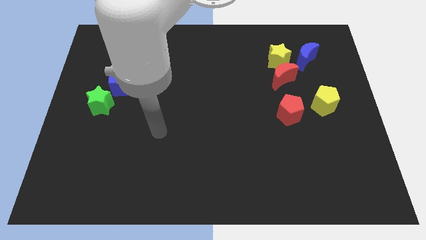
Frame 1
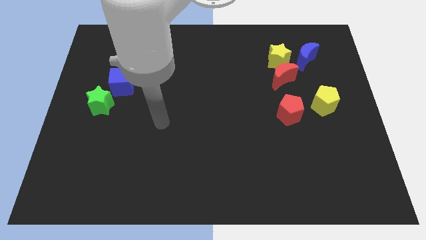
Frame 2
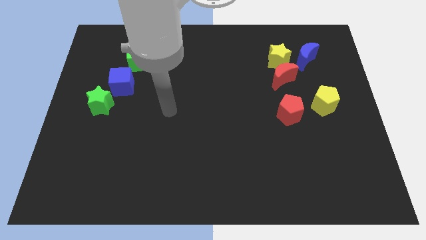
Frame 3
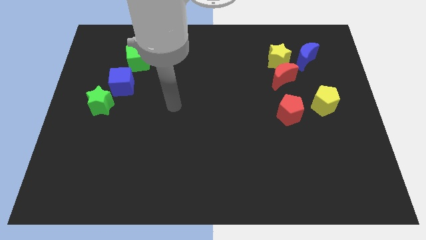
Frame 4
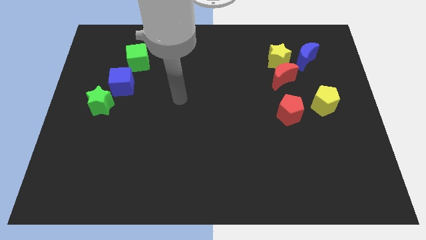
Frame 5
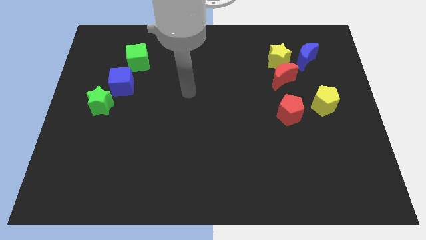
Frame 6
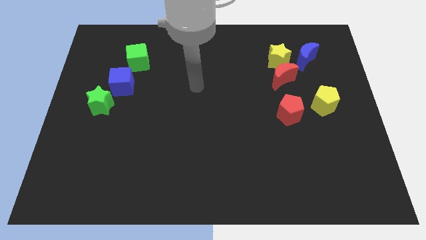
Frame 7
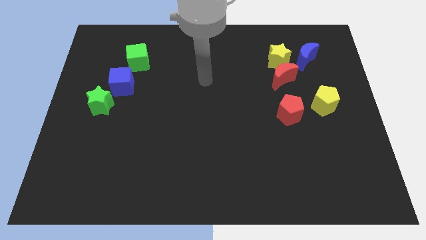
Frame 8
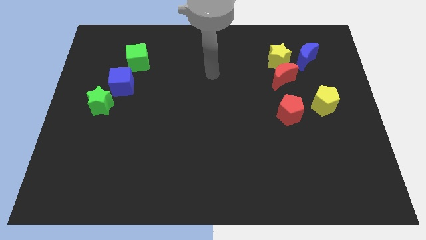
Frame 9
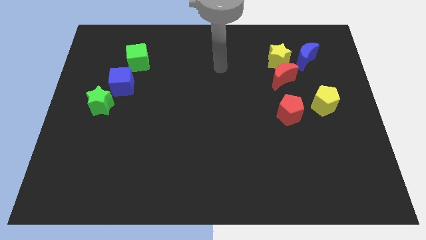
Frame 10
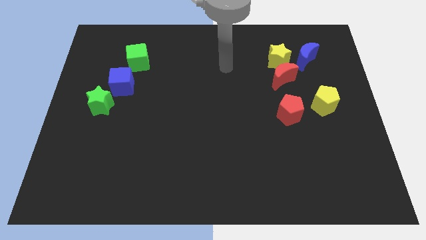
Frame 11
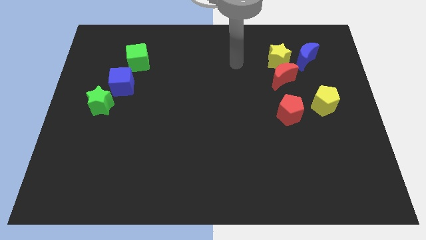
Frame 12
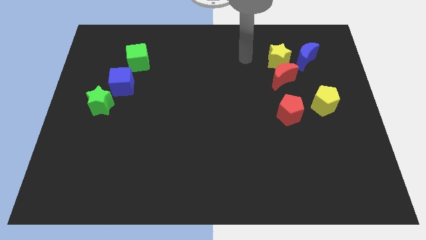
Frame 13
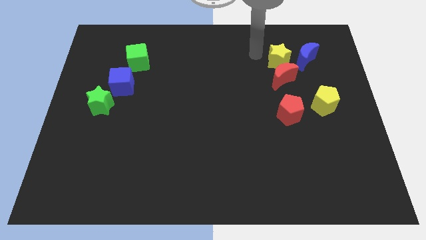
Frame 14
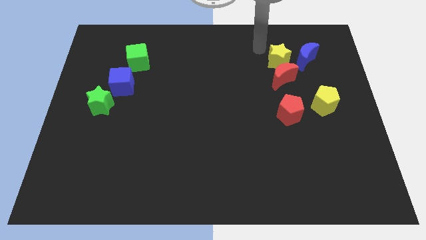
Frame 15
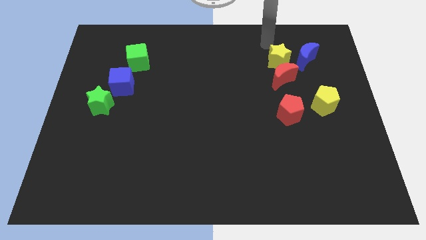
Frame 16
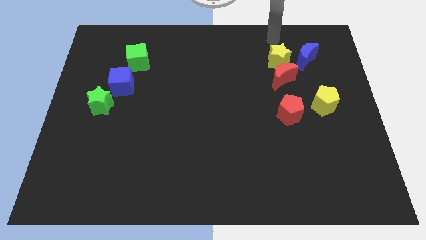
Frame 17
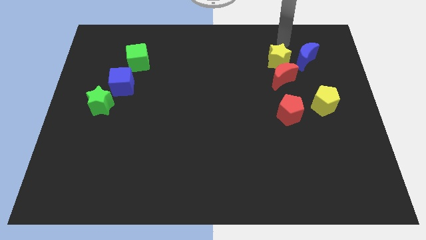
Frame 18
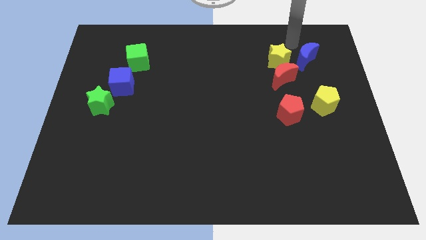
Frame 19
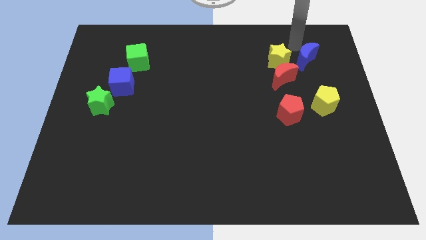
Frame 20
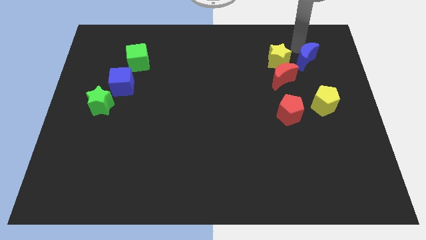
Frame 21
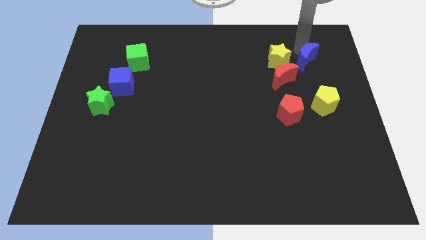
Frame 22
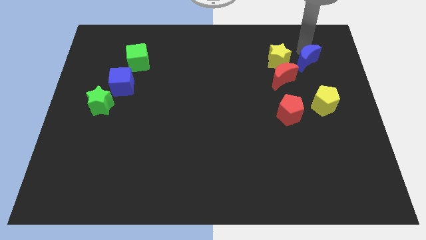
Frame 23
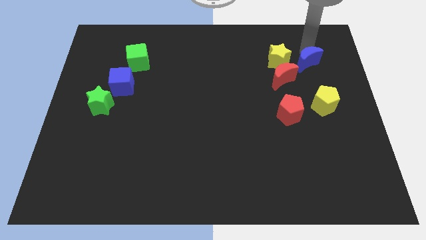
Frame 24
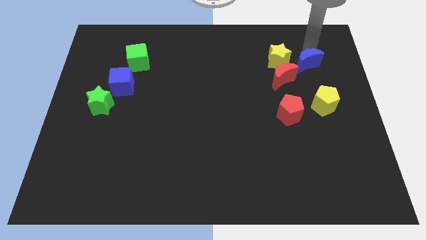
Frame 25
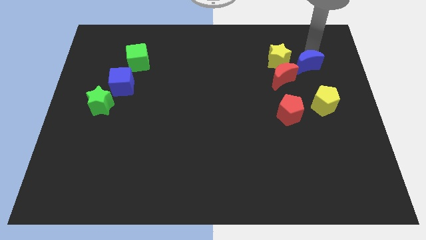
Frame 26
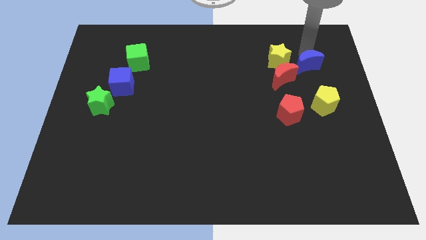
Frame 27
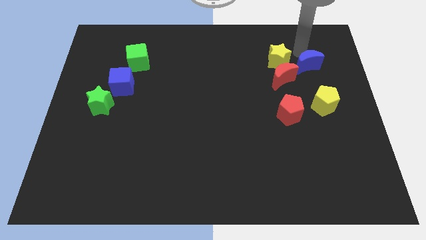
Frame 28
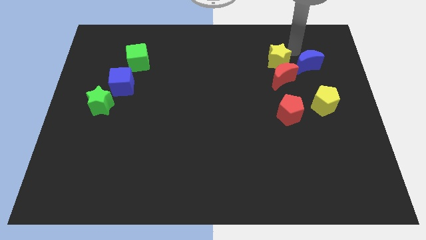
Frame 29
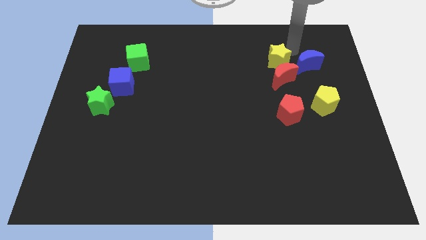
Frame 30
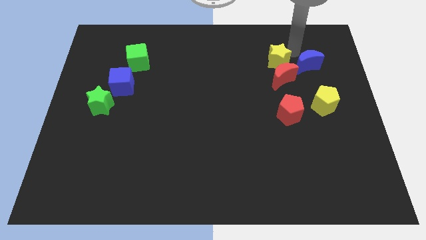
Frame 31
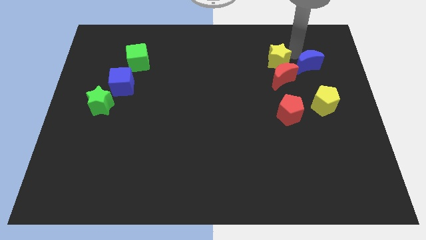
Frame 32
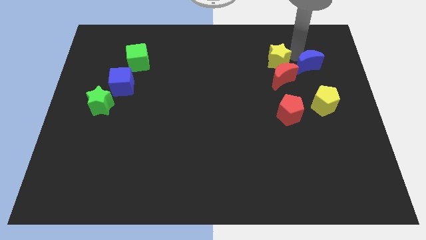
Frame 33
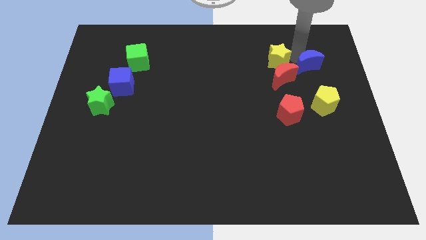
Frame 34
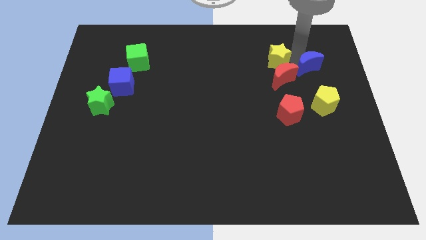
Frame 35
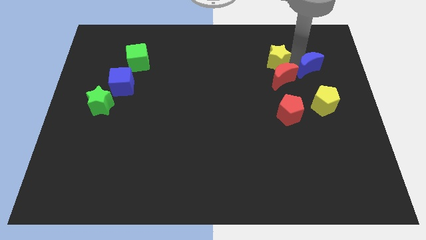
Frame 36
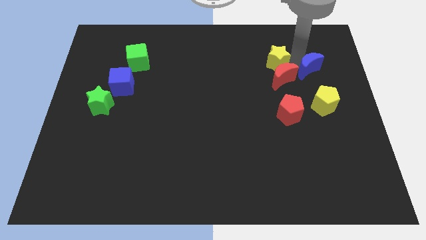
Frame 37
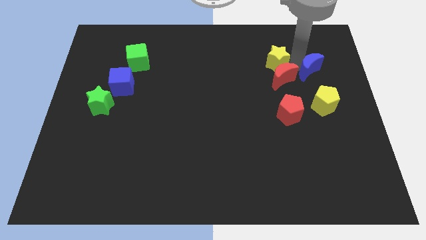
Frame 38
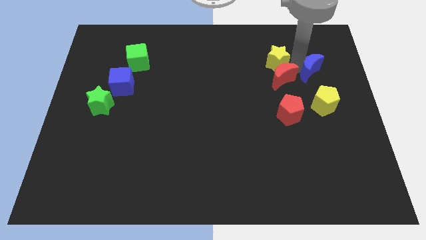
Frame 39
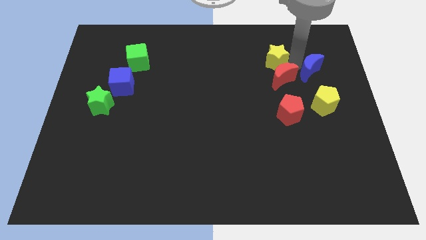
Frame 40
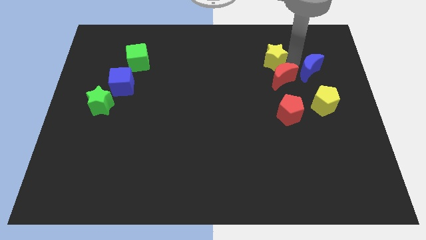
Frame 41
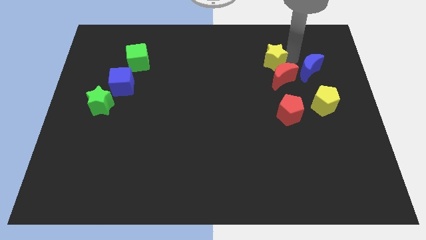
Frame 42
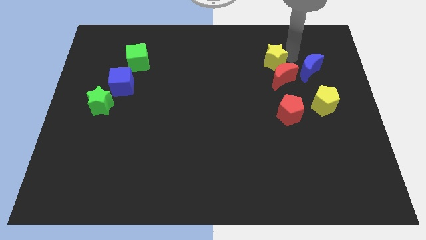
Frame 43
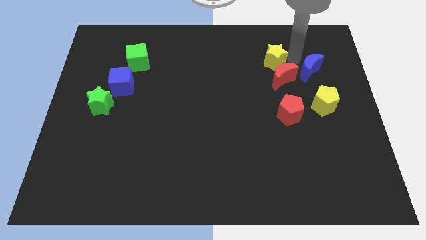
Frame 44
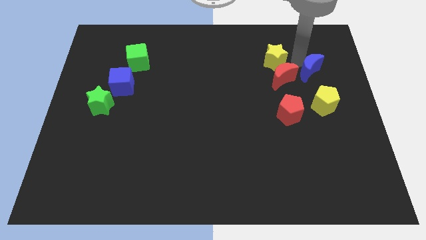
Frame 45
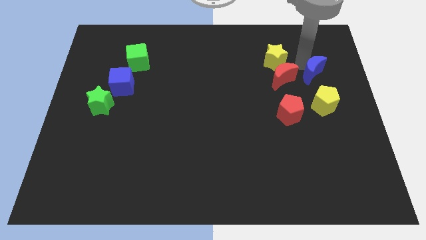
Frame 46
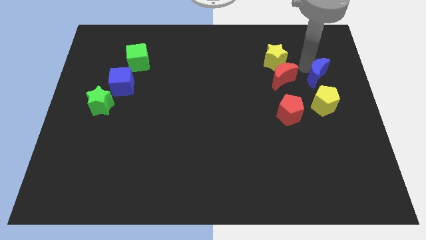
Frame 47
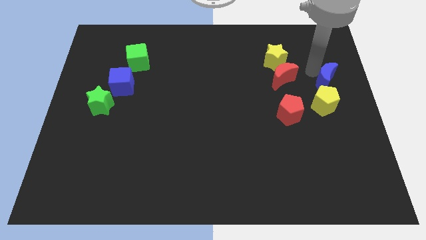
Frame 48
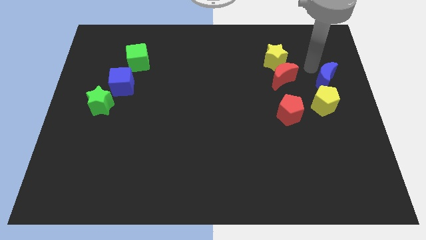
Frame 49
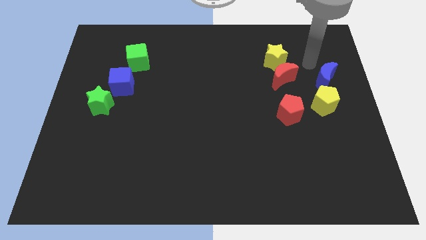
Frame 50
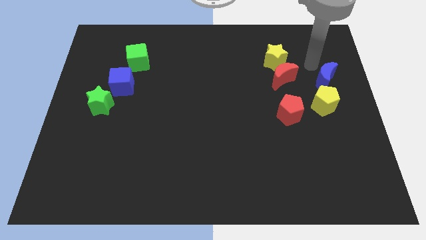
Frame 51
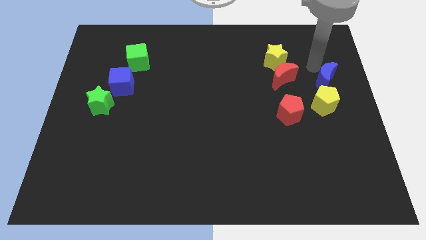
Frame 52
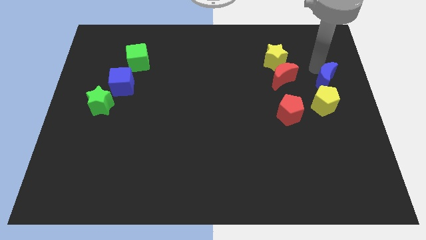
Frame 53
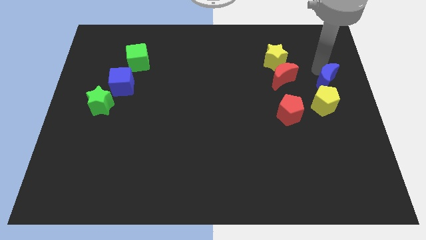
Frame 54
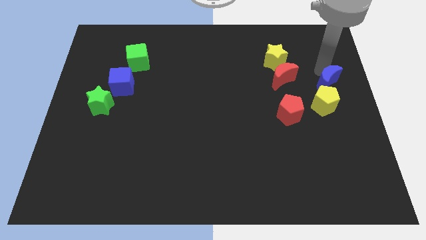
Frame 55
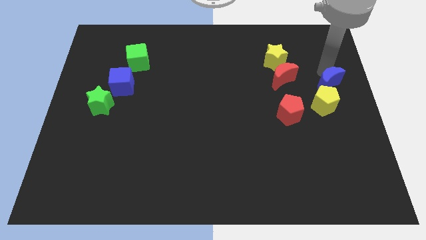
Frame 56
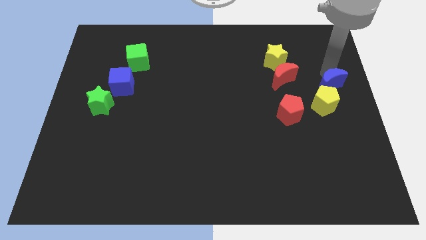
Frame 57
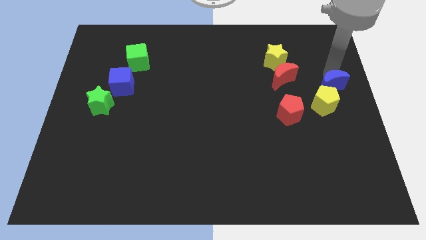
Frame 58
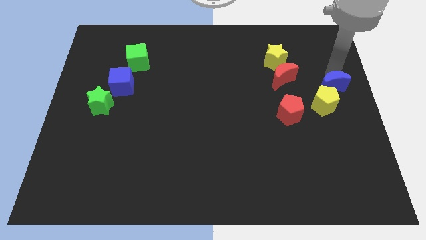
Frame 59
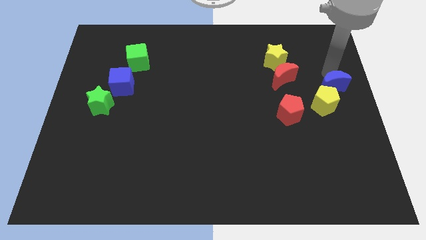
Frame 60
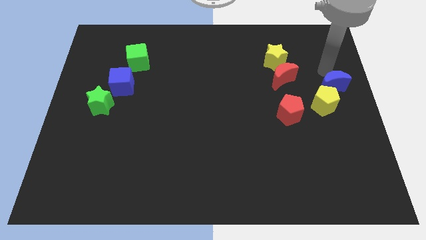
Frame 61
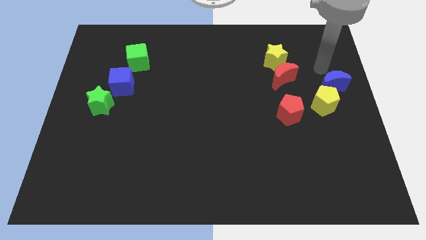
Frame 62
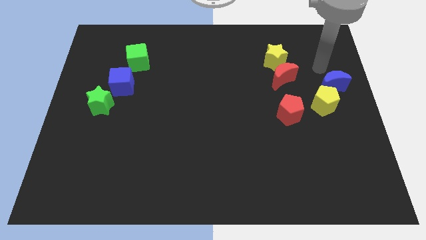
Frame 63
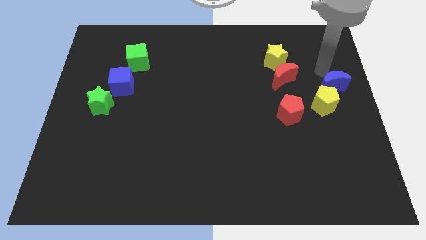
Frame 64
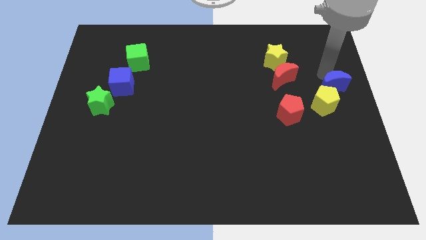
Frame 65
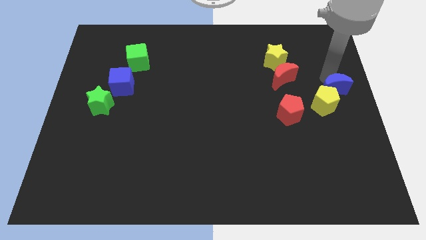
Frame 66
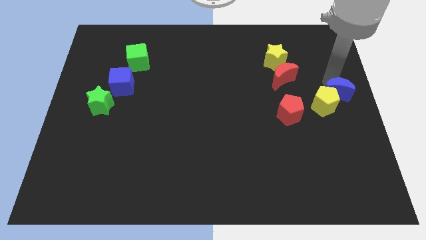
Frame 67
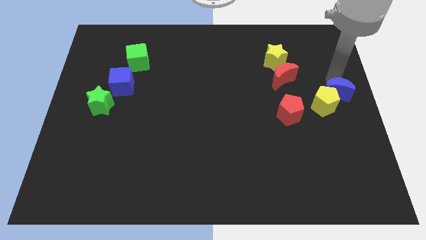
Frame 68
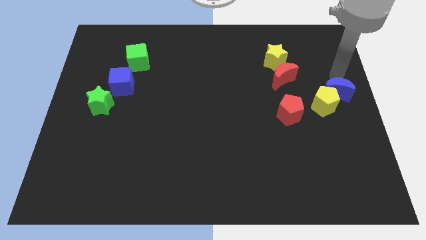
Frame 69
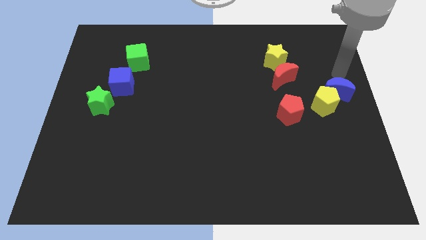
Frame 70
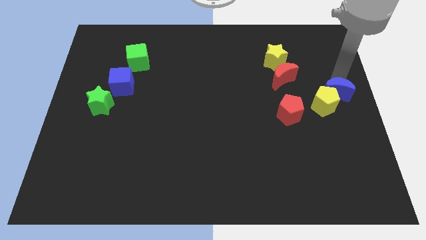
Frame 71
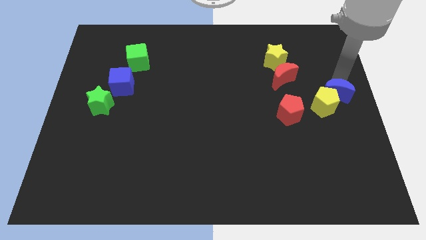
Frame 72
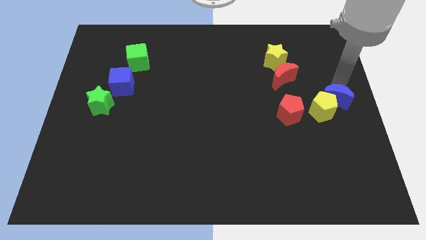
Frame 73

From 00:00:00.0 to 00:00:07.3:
move the blue moon just right of the red pentagon
